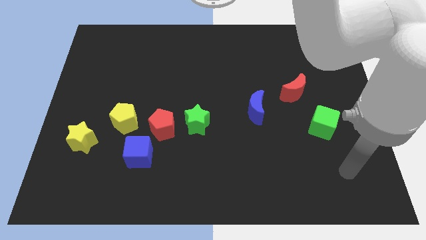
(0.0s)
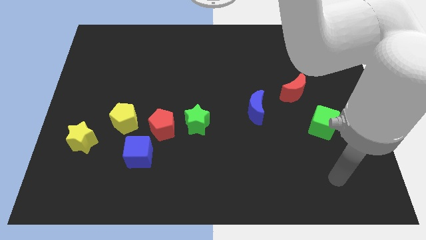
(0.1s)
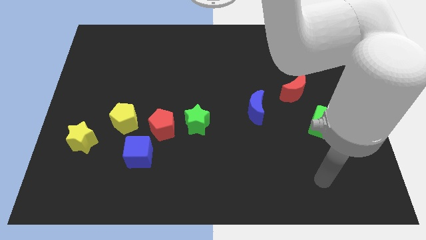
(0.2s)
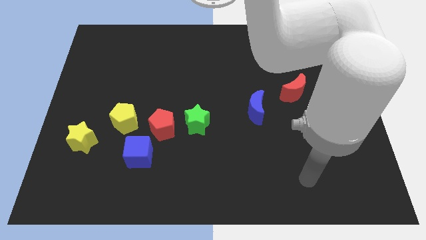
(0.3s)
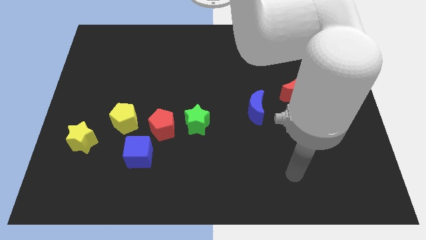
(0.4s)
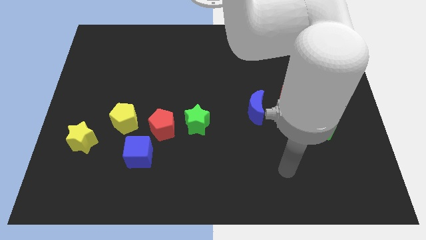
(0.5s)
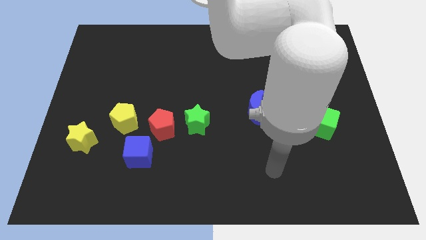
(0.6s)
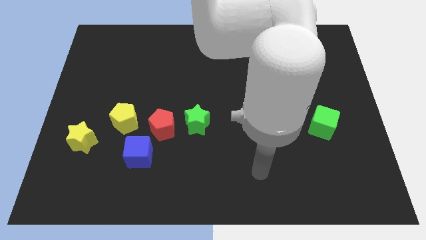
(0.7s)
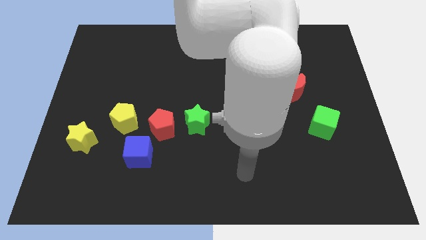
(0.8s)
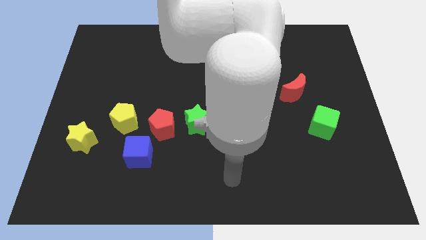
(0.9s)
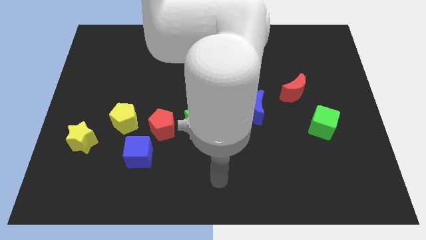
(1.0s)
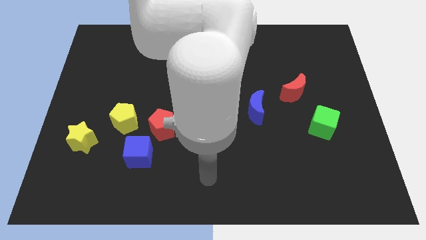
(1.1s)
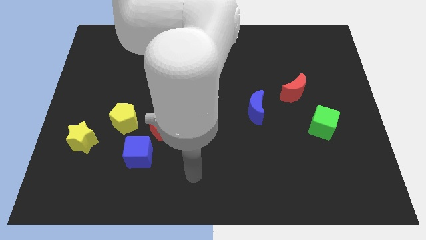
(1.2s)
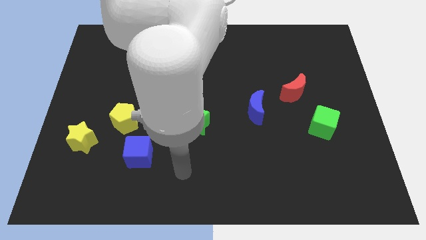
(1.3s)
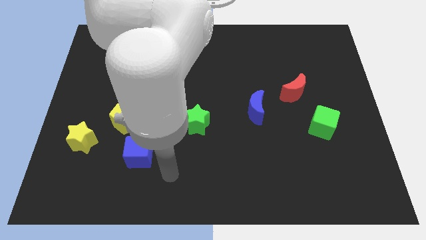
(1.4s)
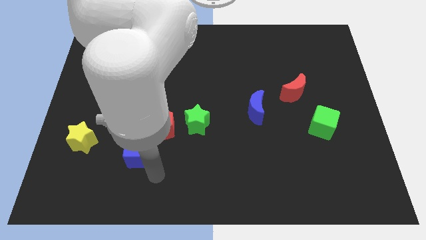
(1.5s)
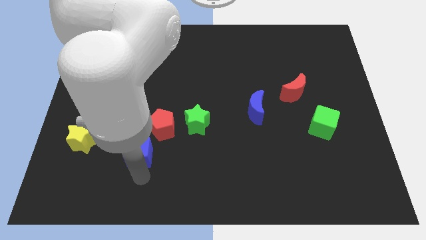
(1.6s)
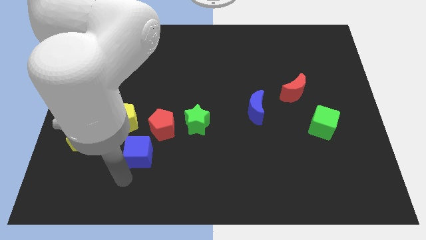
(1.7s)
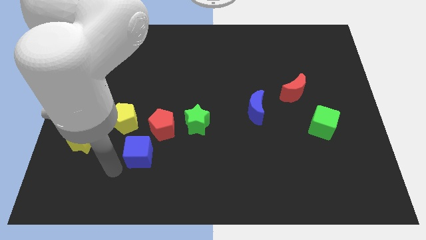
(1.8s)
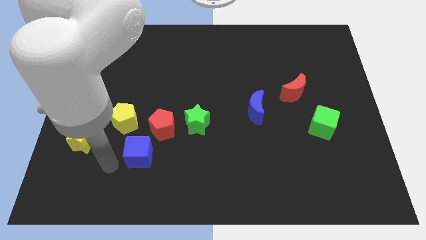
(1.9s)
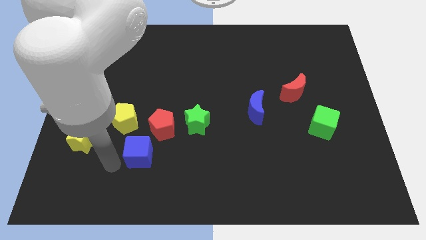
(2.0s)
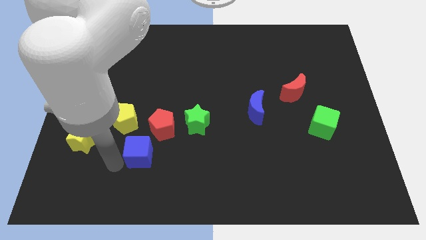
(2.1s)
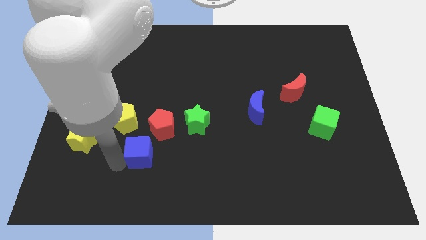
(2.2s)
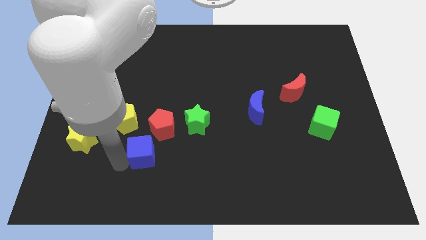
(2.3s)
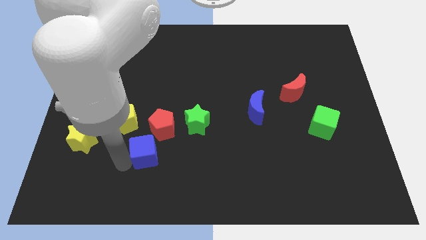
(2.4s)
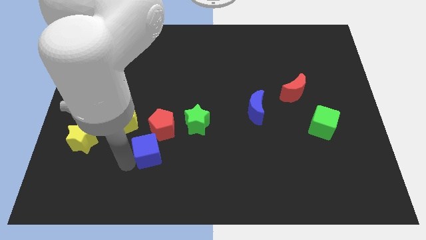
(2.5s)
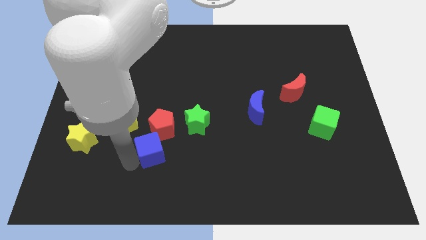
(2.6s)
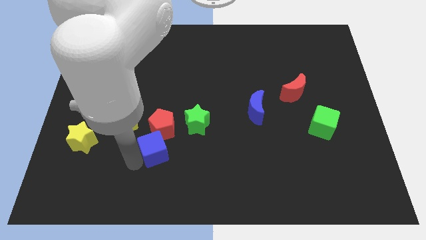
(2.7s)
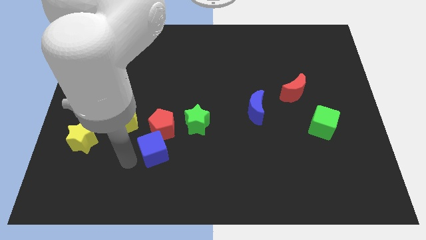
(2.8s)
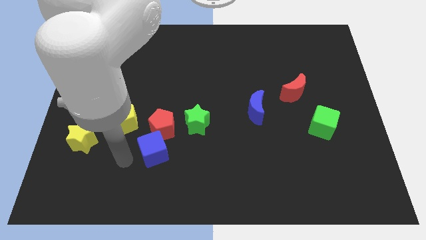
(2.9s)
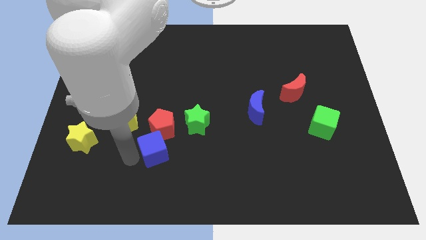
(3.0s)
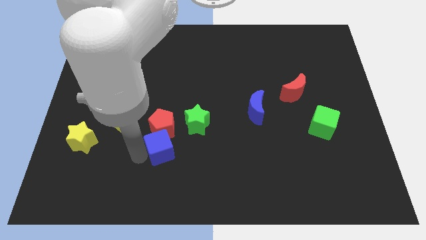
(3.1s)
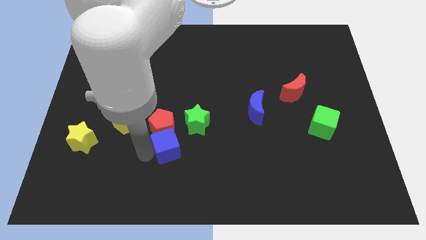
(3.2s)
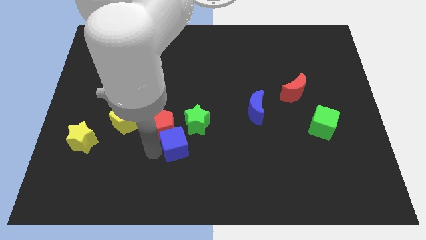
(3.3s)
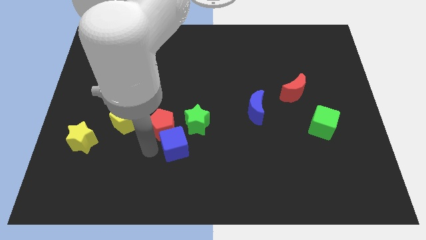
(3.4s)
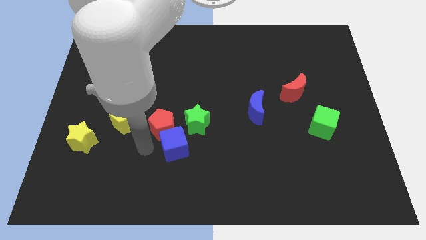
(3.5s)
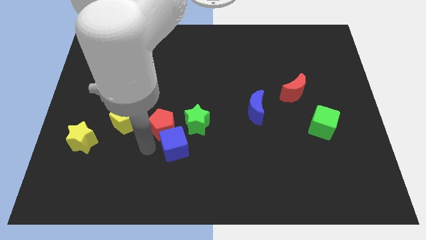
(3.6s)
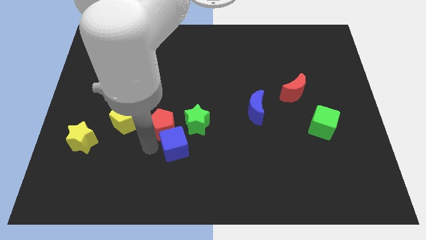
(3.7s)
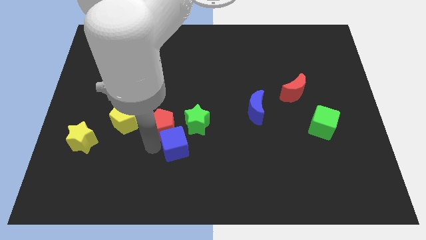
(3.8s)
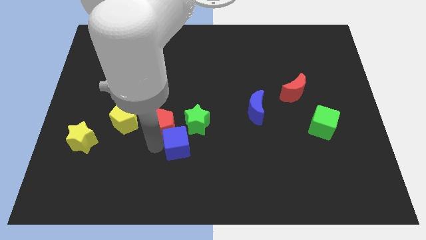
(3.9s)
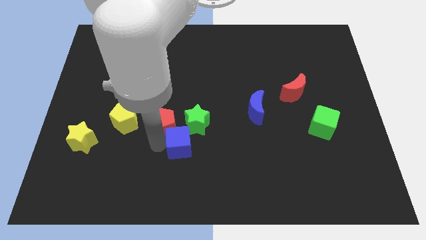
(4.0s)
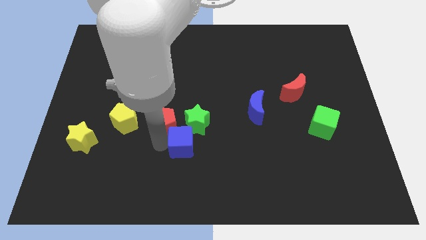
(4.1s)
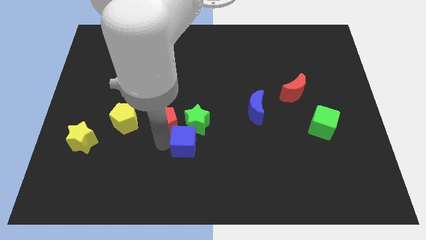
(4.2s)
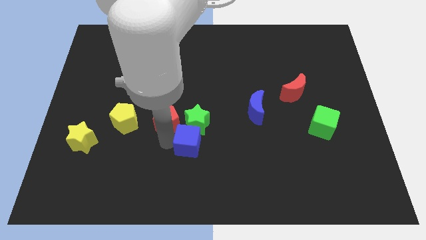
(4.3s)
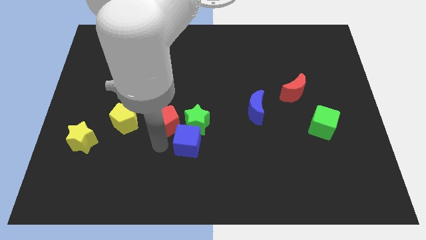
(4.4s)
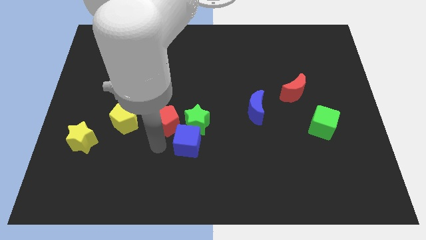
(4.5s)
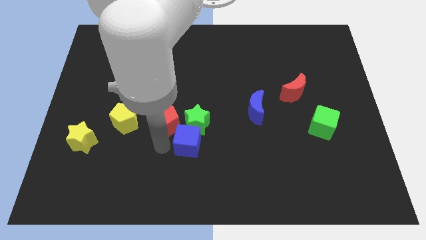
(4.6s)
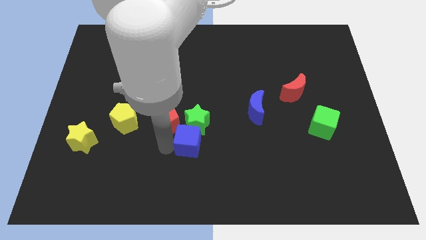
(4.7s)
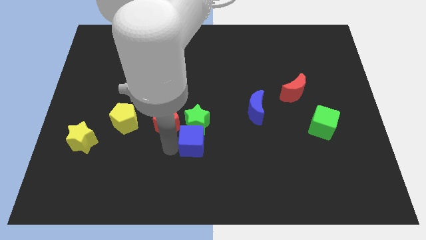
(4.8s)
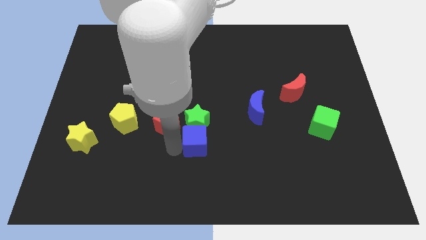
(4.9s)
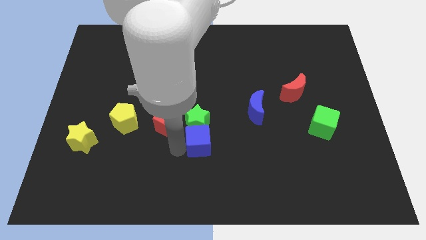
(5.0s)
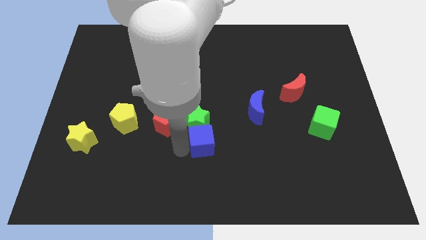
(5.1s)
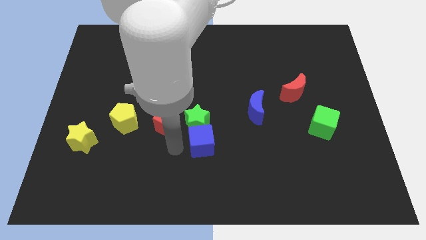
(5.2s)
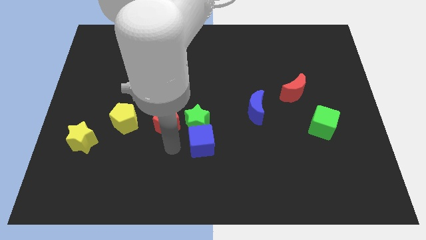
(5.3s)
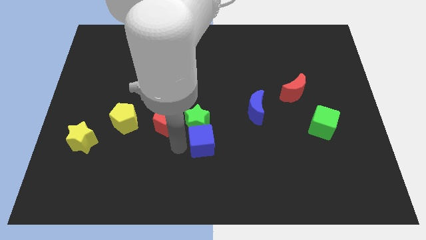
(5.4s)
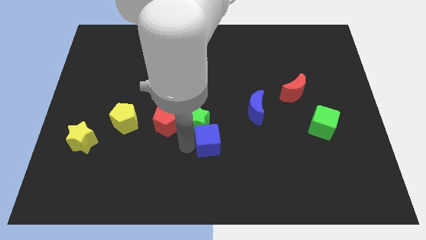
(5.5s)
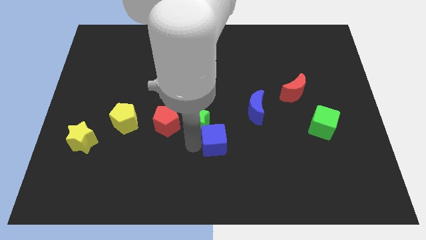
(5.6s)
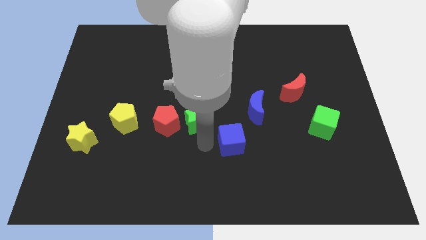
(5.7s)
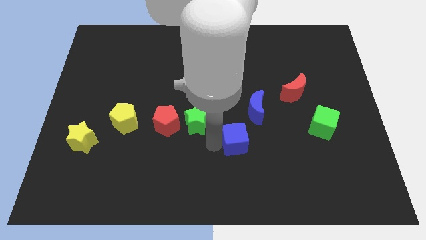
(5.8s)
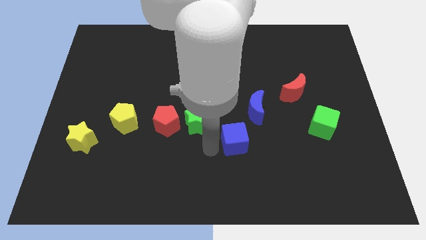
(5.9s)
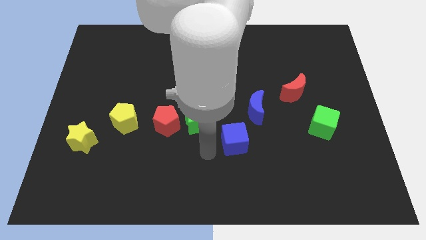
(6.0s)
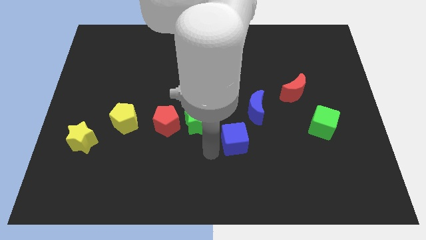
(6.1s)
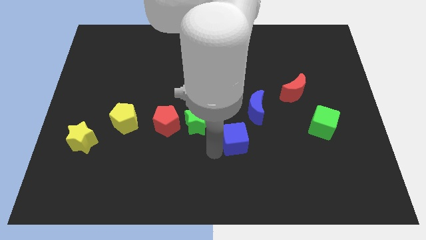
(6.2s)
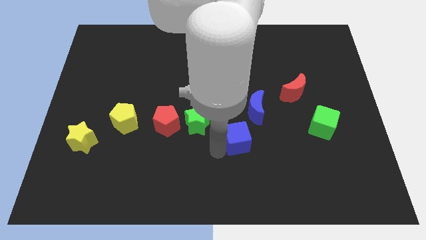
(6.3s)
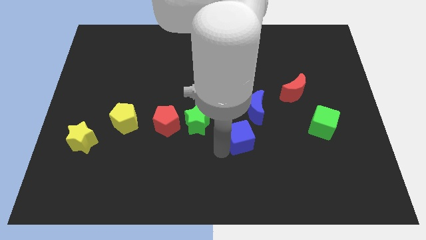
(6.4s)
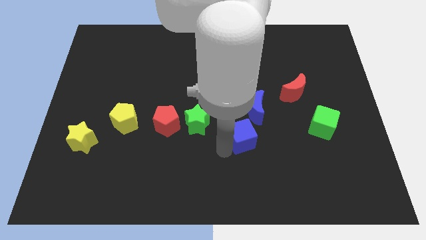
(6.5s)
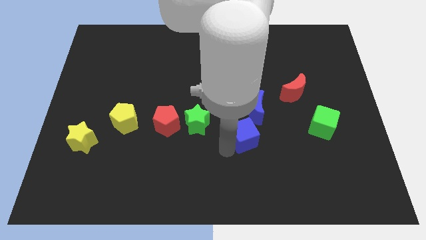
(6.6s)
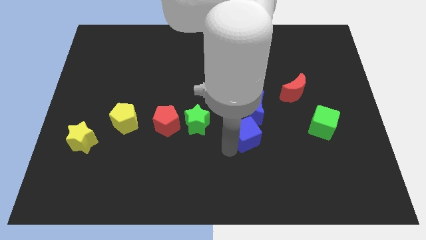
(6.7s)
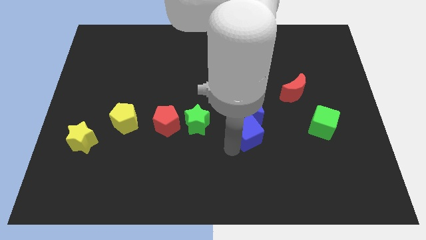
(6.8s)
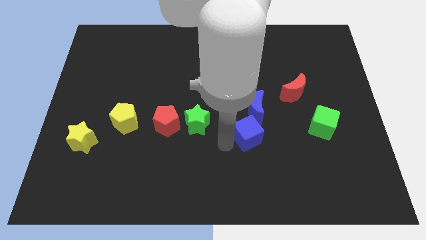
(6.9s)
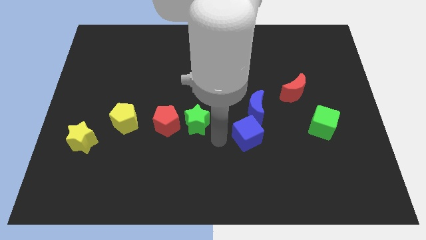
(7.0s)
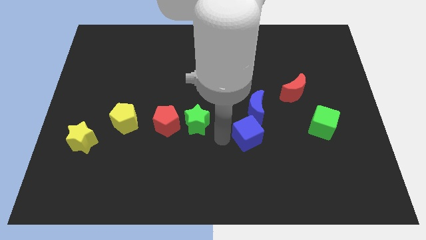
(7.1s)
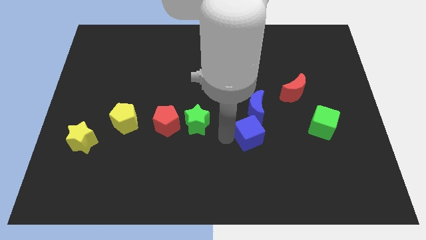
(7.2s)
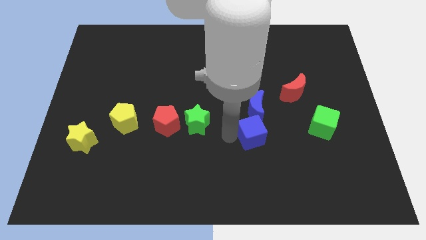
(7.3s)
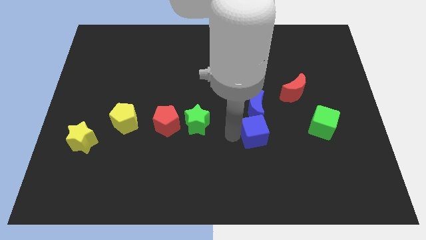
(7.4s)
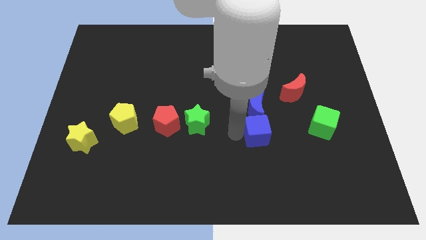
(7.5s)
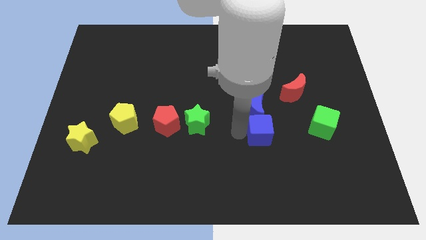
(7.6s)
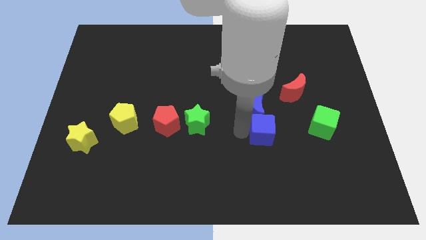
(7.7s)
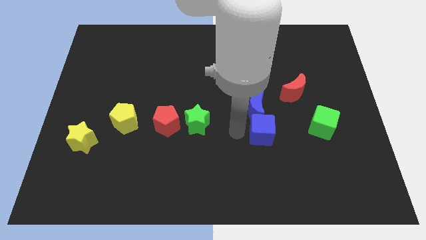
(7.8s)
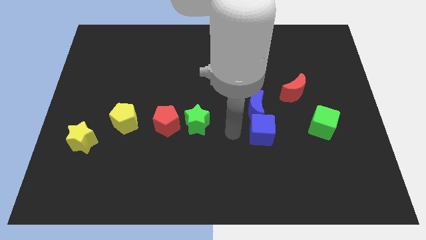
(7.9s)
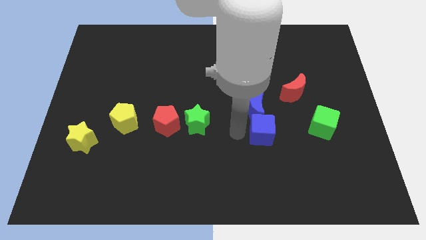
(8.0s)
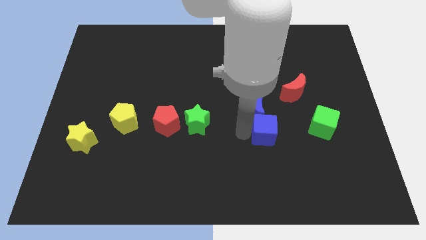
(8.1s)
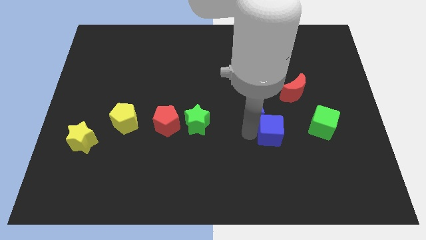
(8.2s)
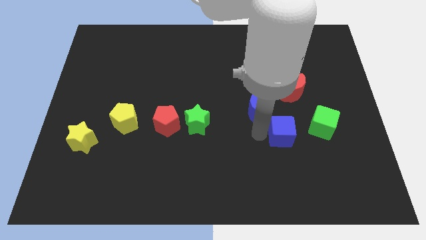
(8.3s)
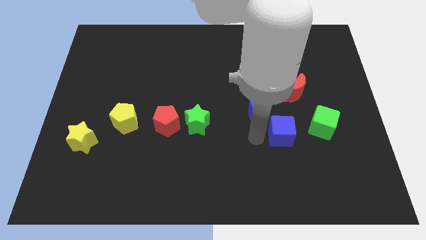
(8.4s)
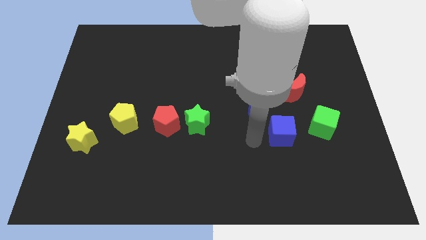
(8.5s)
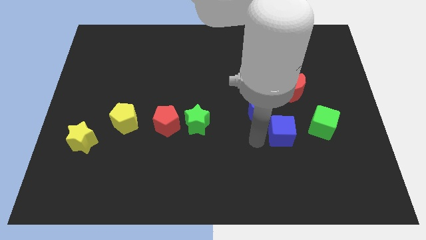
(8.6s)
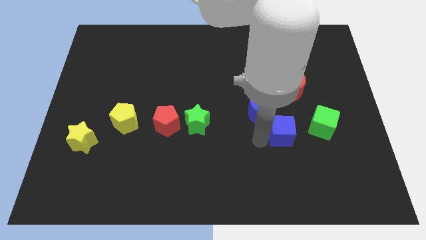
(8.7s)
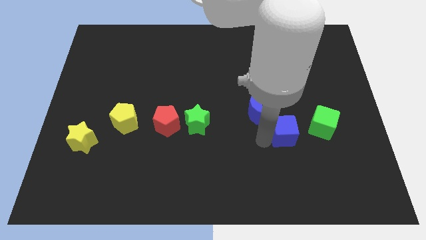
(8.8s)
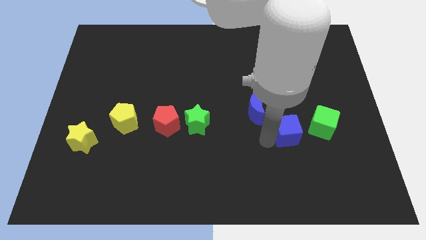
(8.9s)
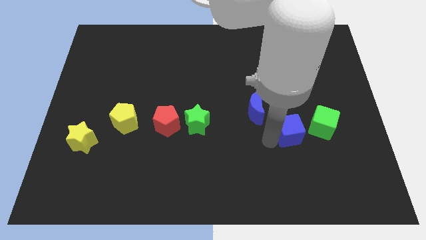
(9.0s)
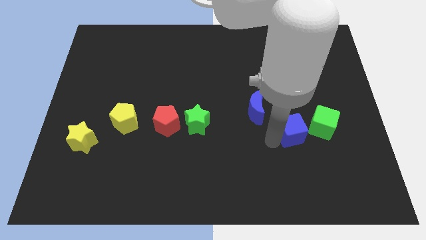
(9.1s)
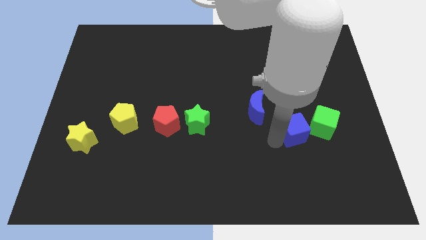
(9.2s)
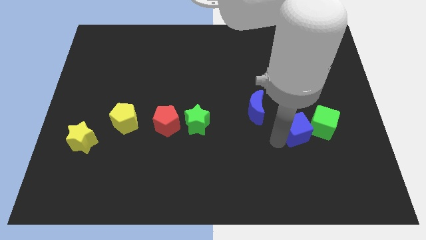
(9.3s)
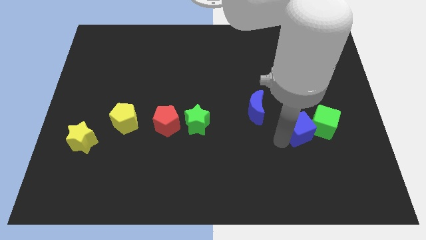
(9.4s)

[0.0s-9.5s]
slide the blue cube close to the green cube
